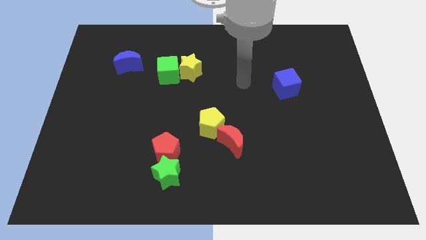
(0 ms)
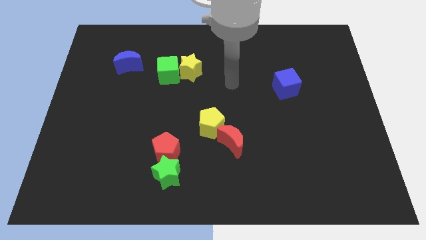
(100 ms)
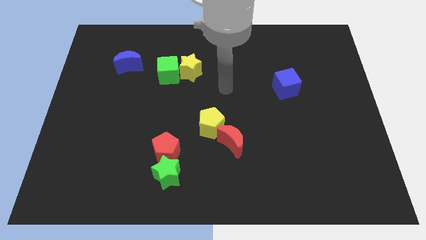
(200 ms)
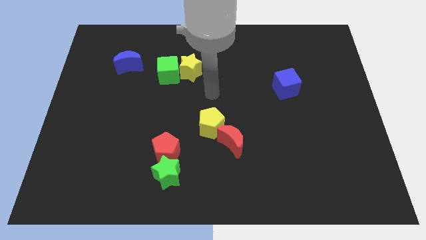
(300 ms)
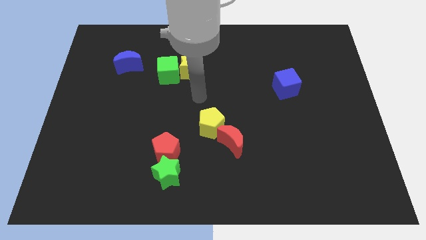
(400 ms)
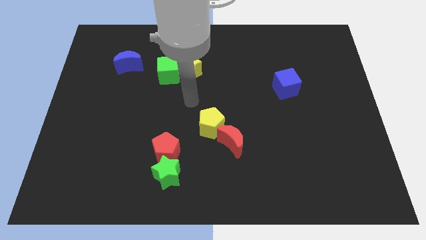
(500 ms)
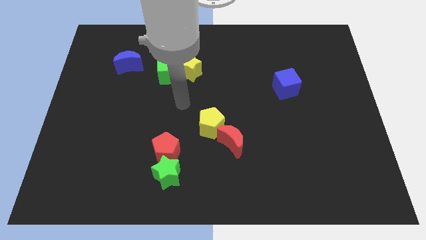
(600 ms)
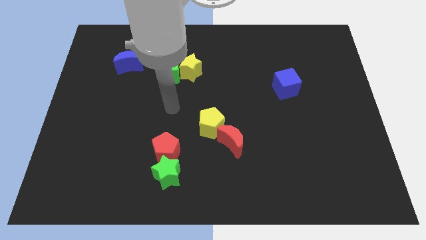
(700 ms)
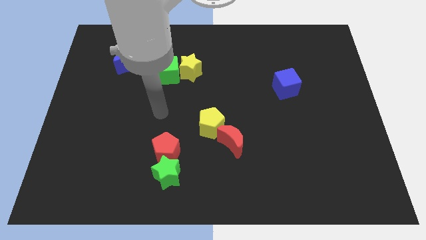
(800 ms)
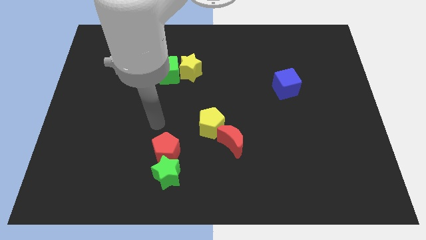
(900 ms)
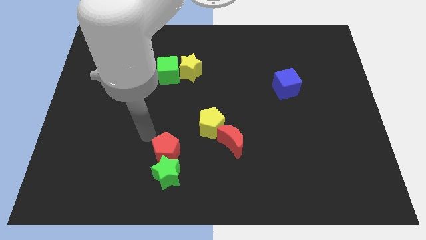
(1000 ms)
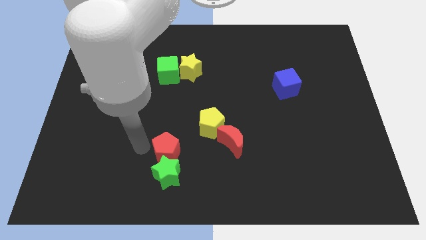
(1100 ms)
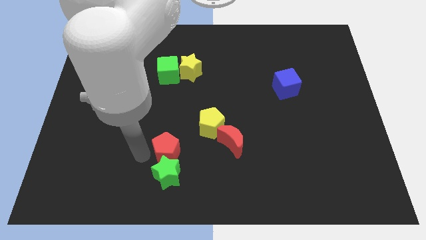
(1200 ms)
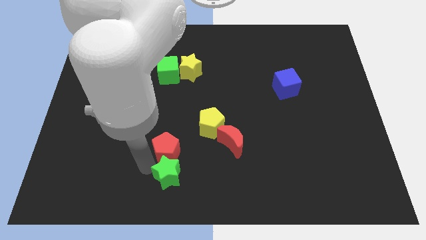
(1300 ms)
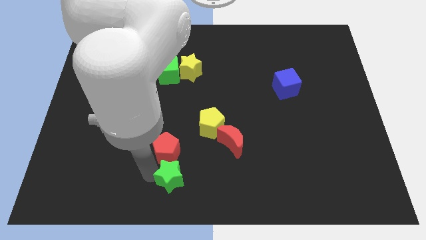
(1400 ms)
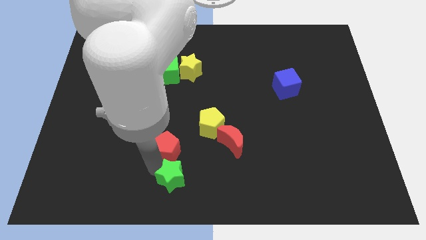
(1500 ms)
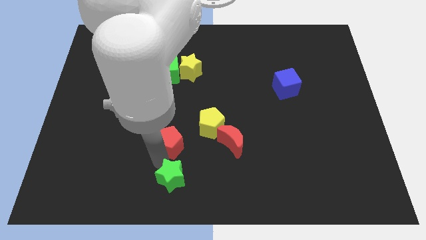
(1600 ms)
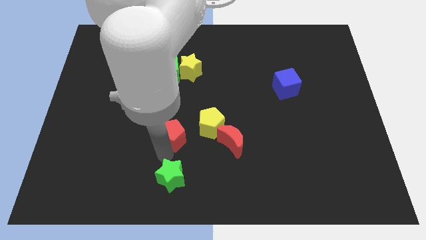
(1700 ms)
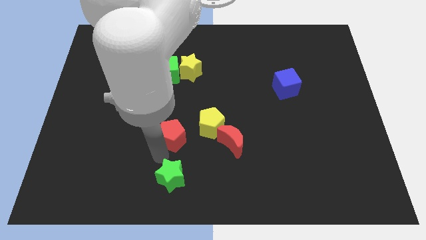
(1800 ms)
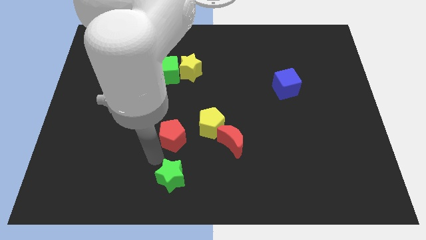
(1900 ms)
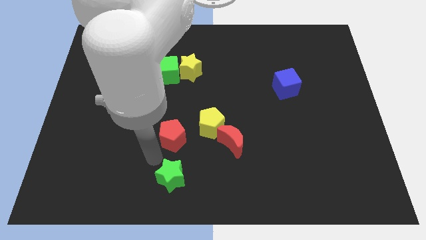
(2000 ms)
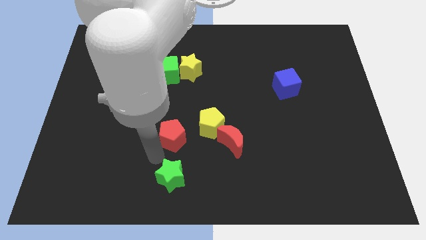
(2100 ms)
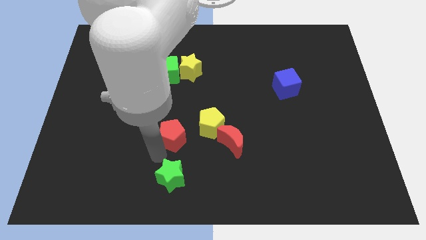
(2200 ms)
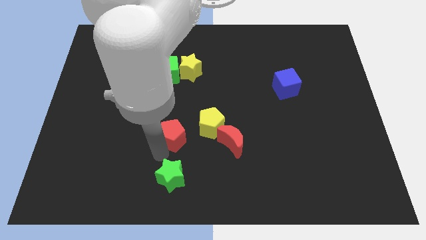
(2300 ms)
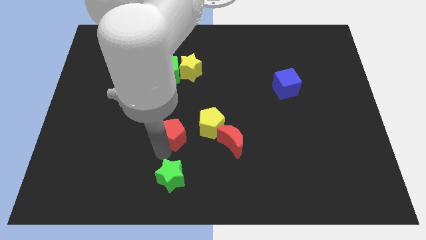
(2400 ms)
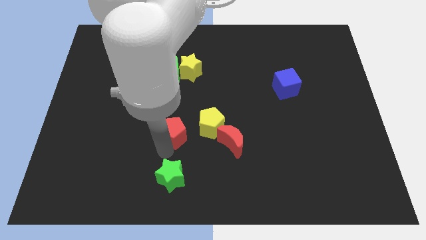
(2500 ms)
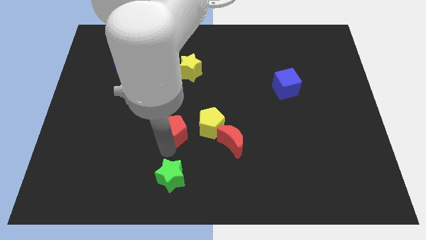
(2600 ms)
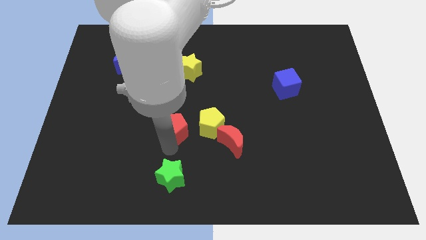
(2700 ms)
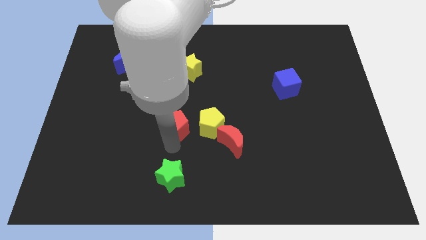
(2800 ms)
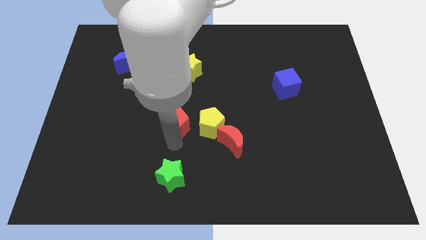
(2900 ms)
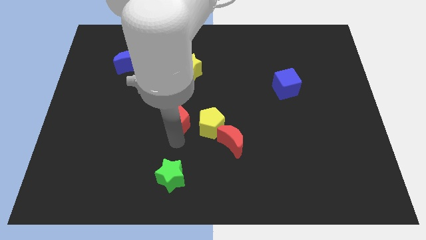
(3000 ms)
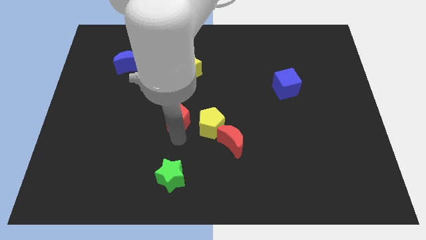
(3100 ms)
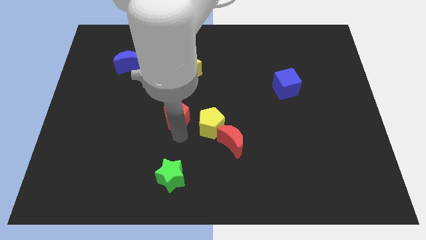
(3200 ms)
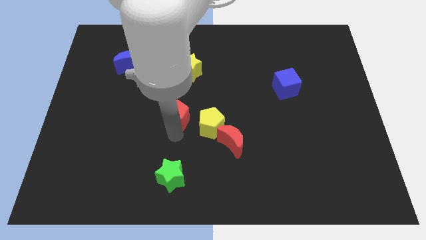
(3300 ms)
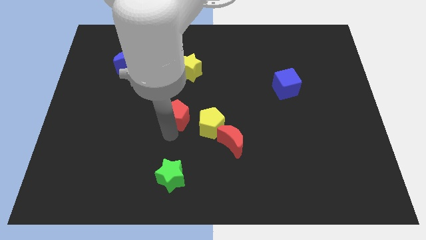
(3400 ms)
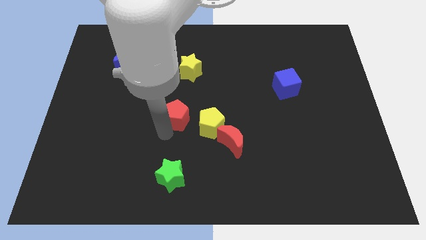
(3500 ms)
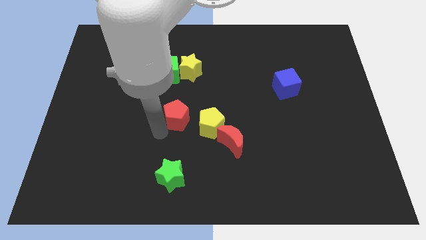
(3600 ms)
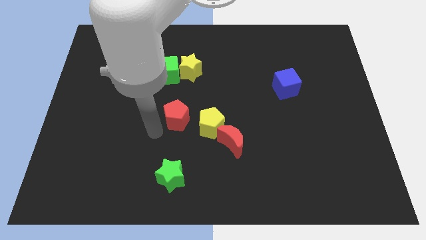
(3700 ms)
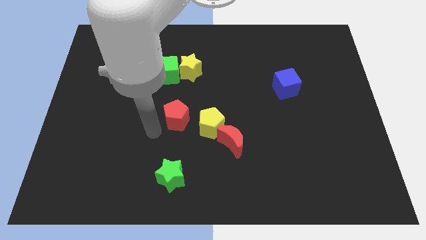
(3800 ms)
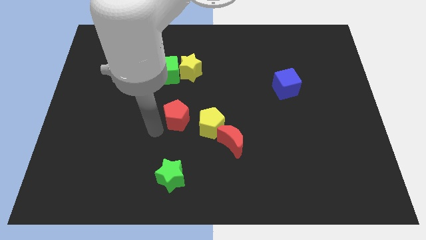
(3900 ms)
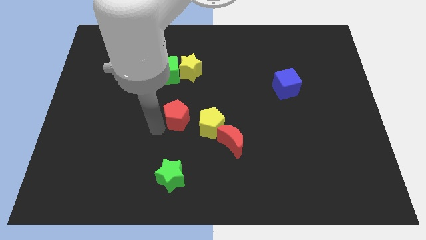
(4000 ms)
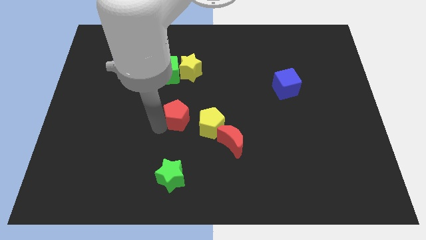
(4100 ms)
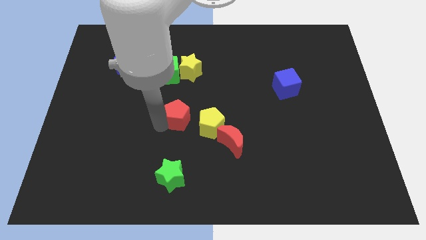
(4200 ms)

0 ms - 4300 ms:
slide the red pentagon up and right diagonally a little

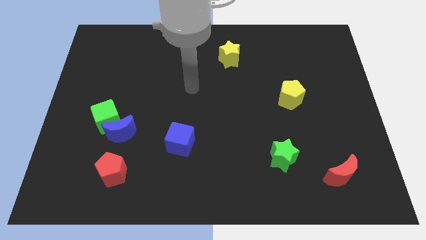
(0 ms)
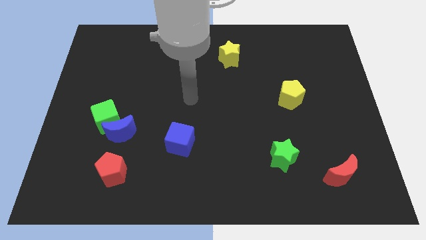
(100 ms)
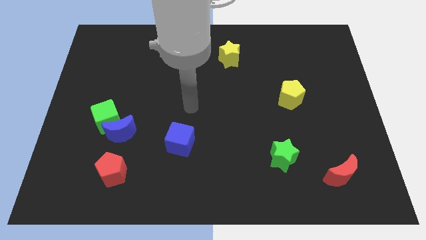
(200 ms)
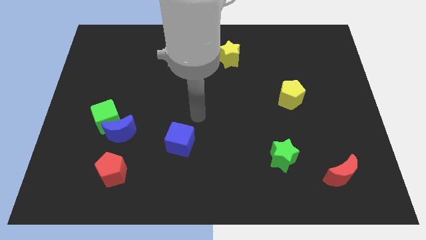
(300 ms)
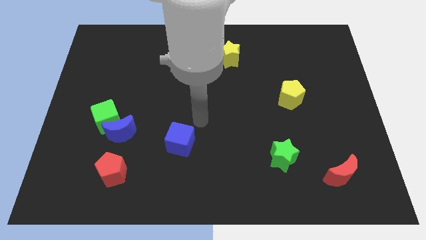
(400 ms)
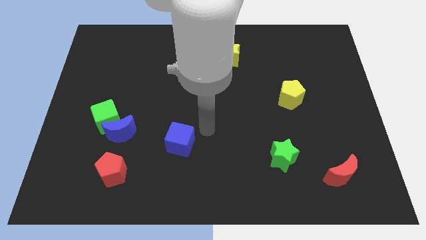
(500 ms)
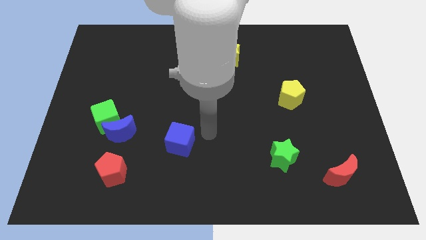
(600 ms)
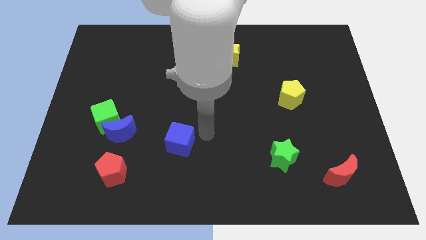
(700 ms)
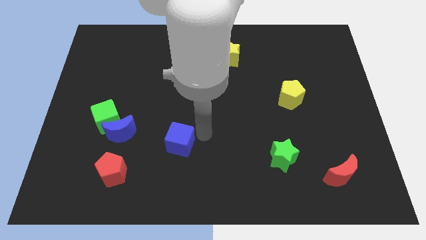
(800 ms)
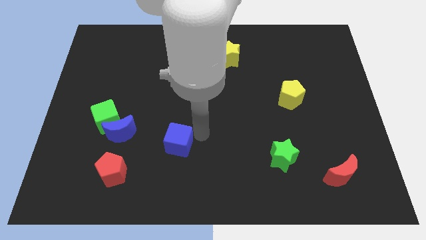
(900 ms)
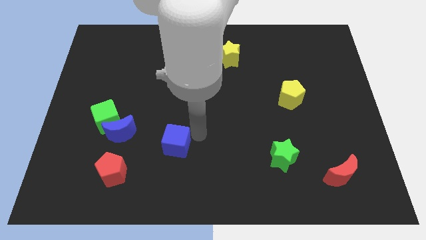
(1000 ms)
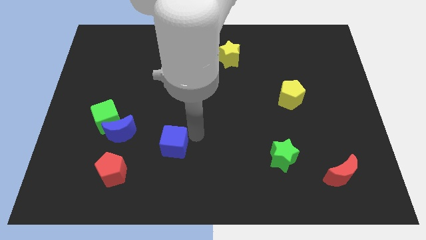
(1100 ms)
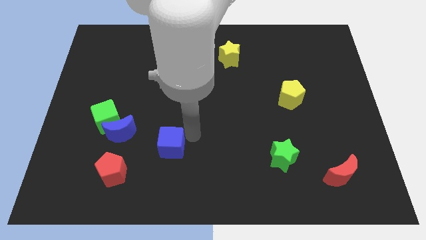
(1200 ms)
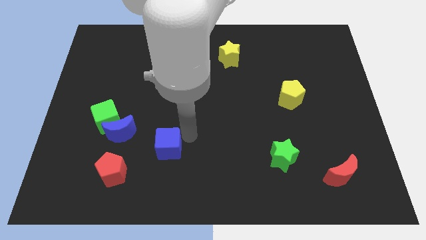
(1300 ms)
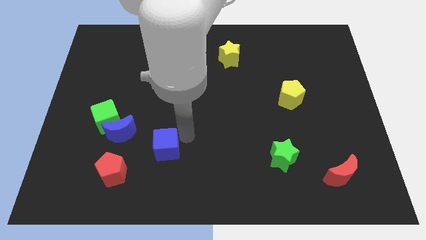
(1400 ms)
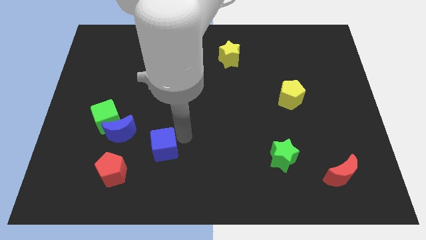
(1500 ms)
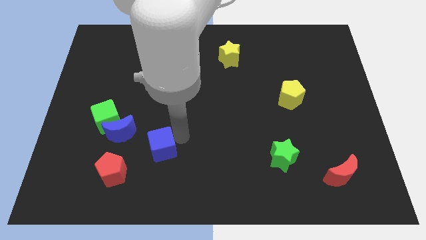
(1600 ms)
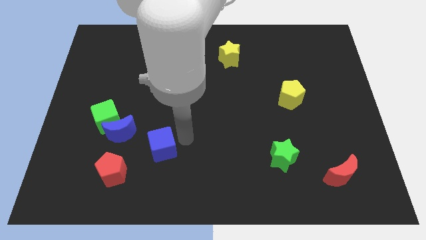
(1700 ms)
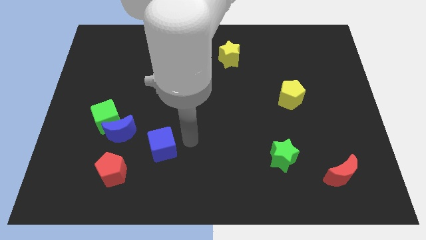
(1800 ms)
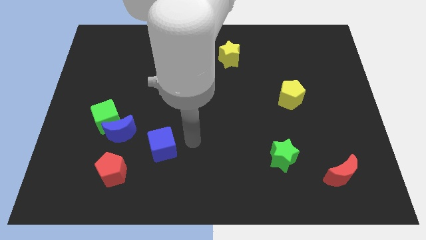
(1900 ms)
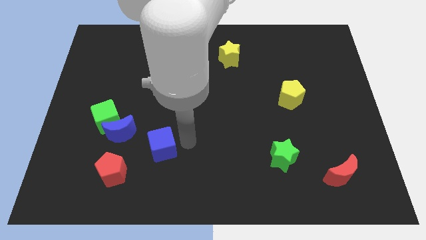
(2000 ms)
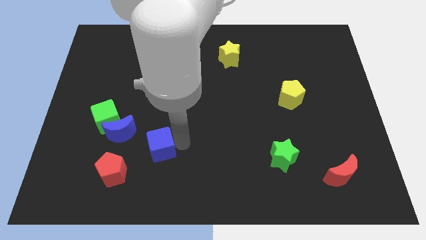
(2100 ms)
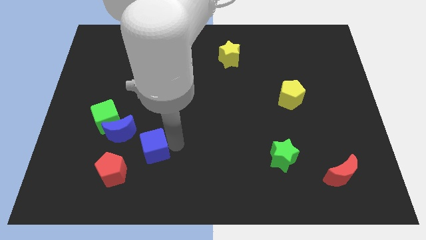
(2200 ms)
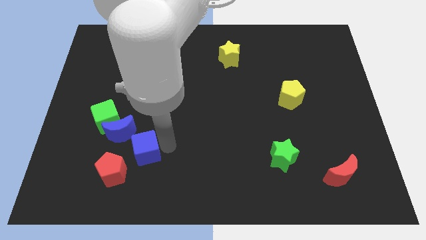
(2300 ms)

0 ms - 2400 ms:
slightly move the blue cube to the left

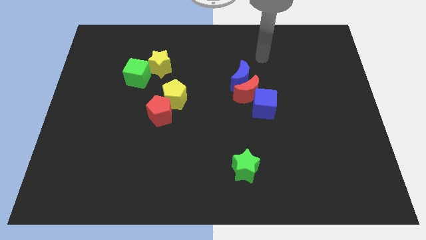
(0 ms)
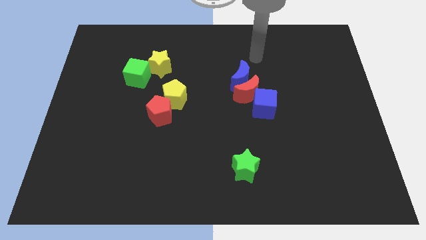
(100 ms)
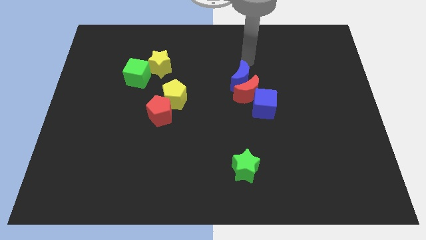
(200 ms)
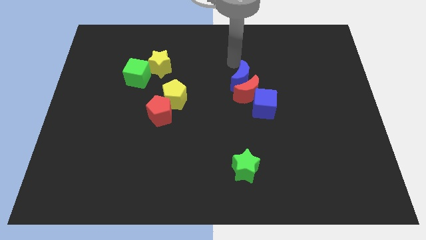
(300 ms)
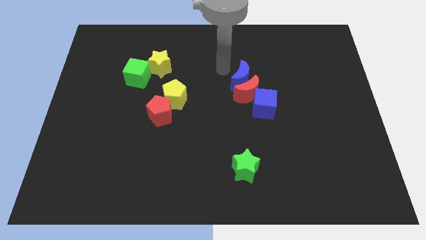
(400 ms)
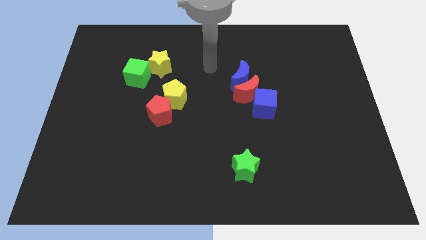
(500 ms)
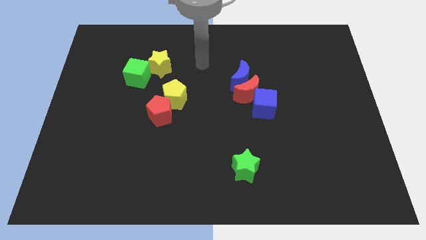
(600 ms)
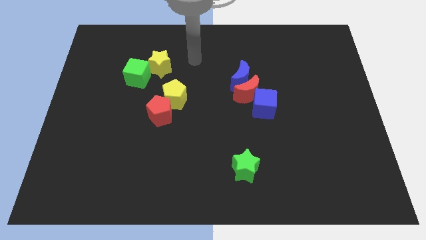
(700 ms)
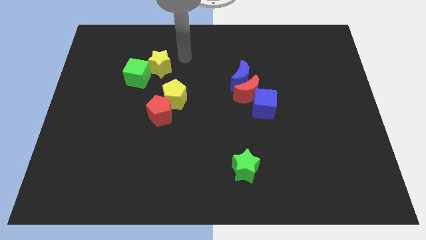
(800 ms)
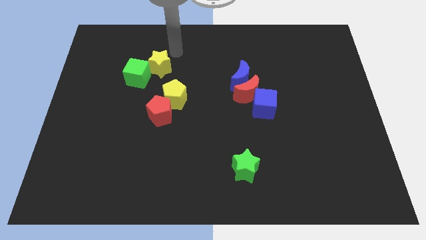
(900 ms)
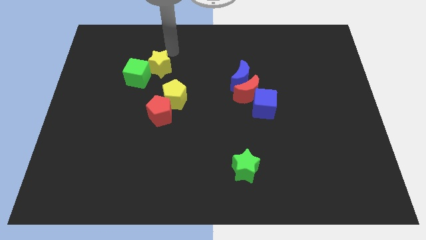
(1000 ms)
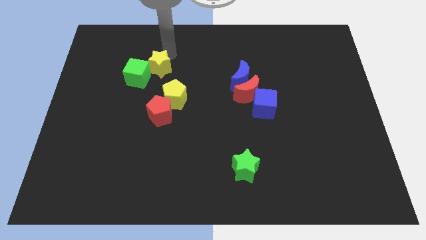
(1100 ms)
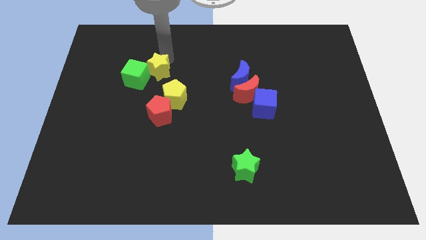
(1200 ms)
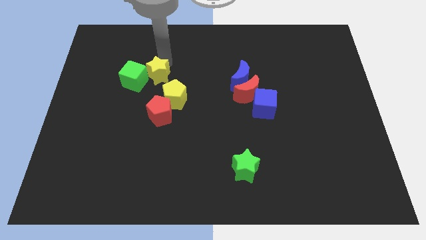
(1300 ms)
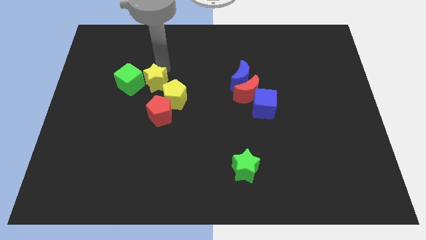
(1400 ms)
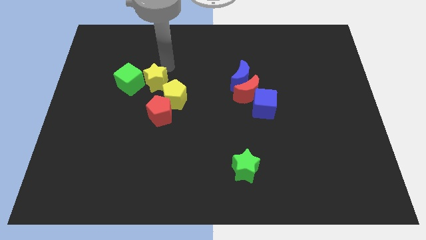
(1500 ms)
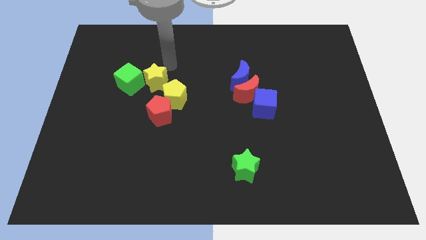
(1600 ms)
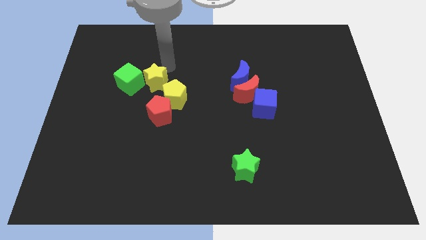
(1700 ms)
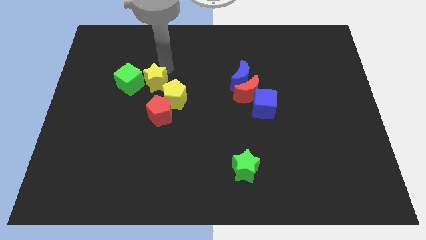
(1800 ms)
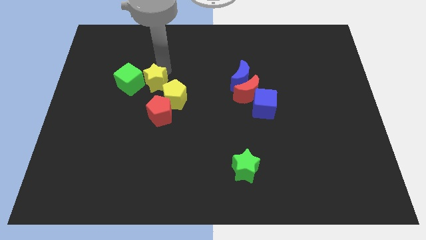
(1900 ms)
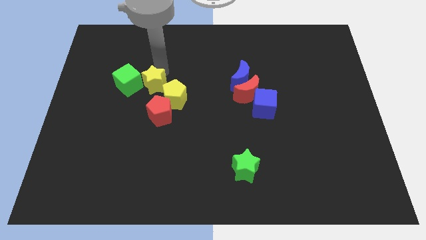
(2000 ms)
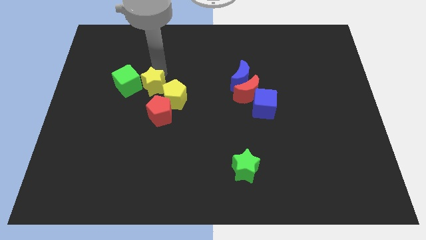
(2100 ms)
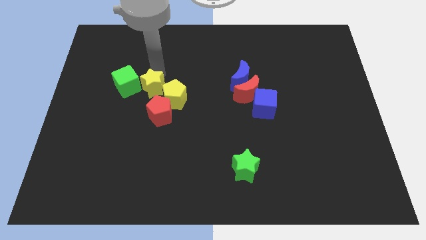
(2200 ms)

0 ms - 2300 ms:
push the yellow star a little bit down
